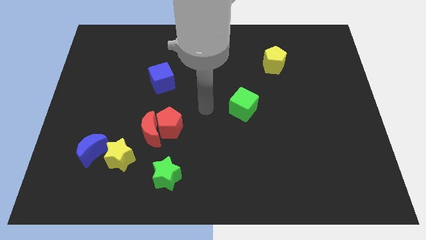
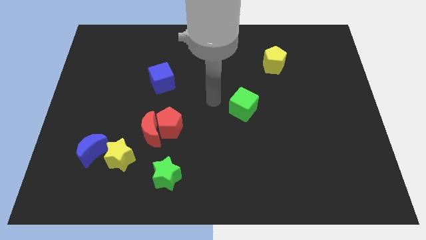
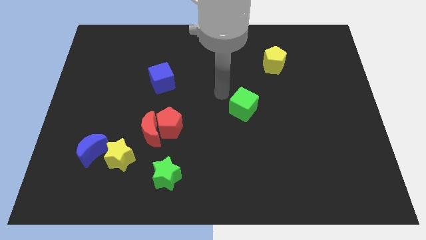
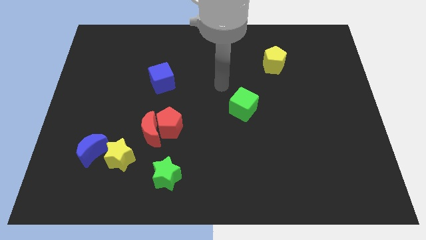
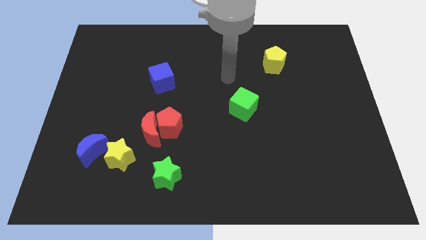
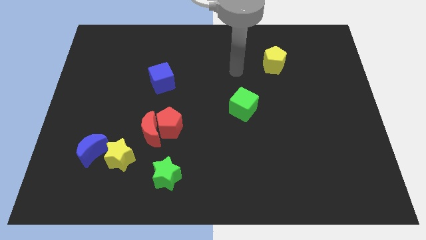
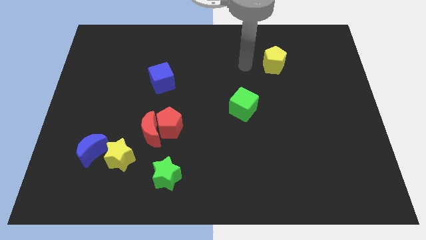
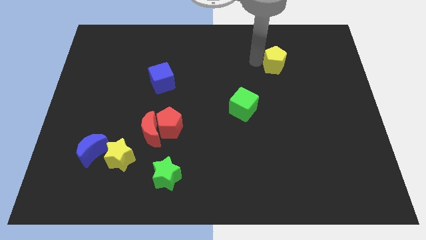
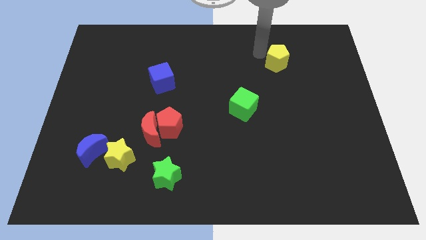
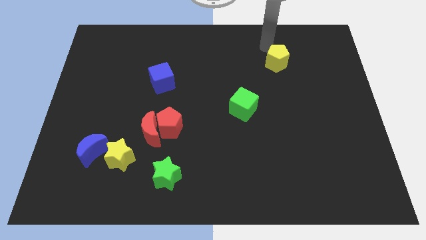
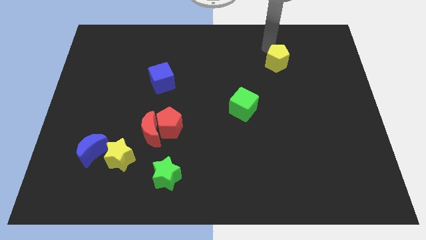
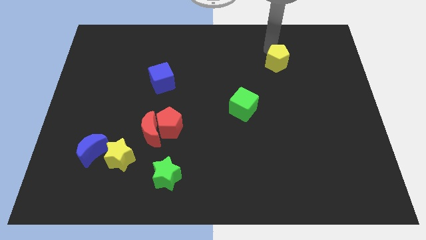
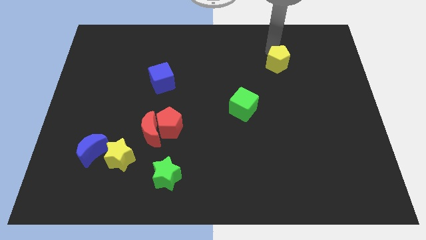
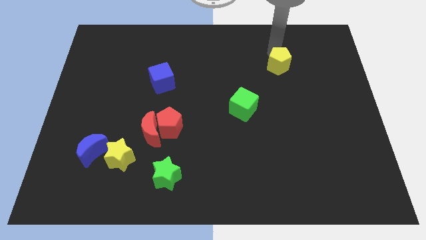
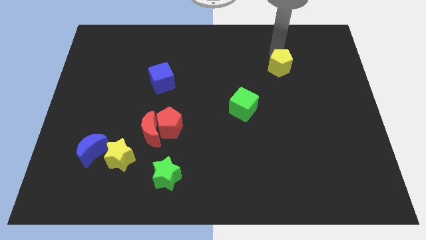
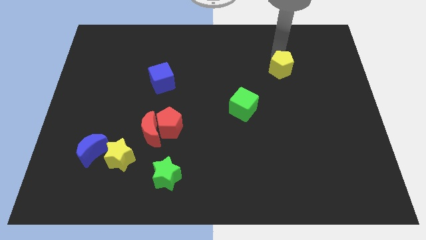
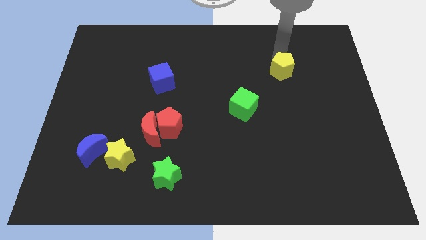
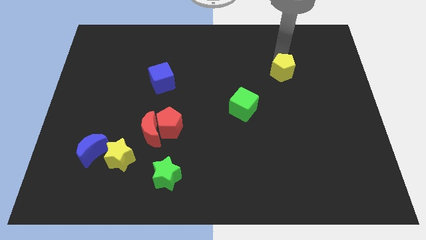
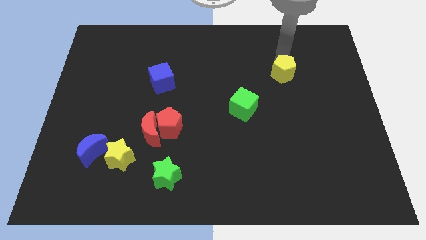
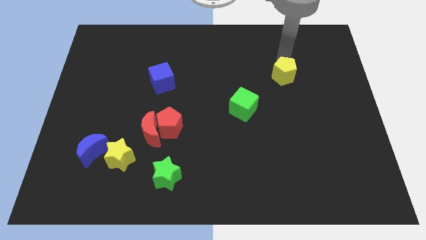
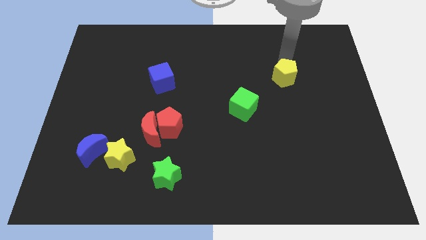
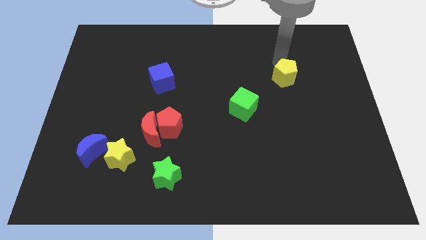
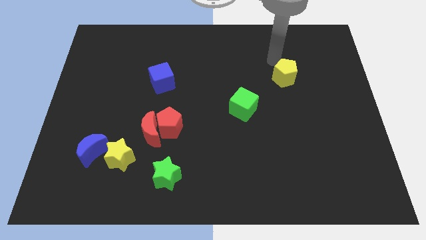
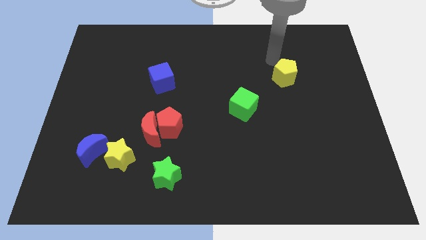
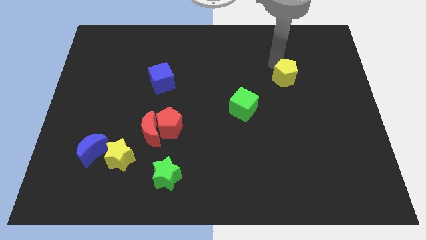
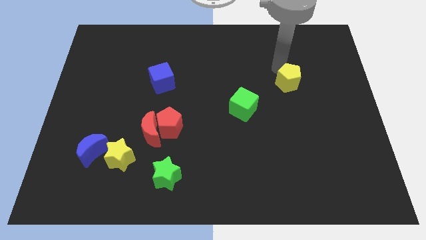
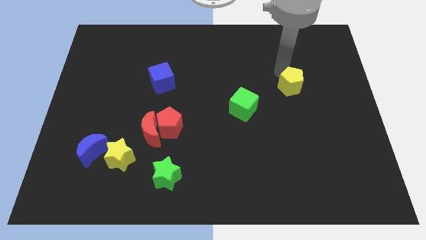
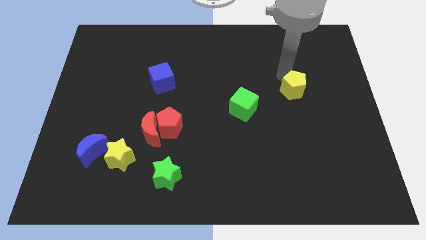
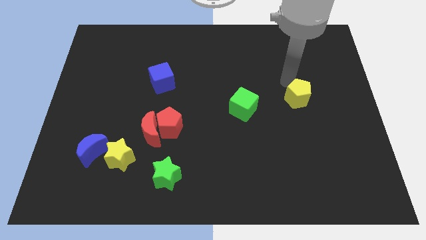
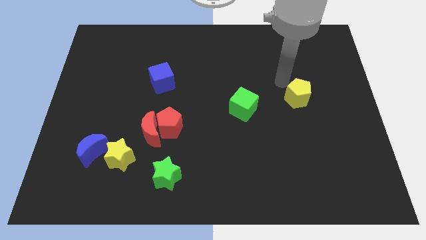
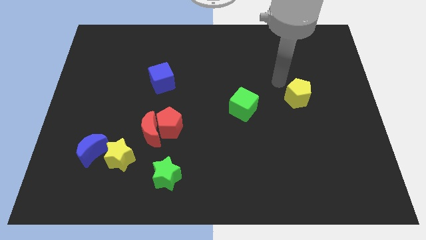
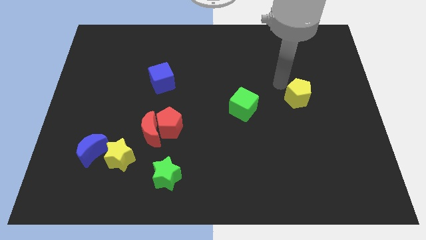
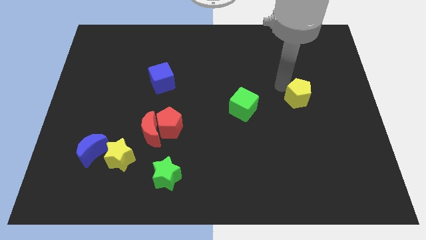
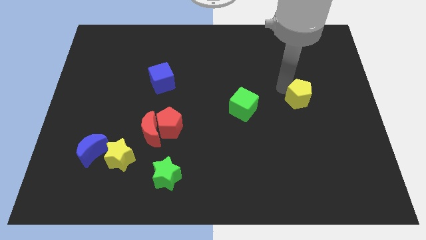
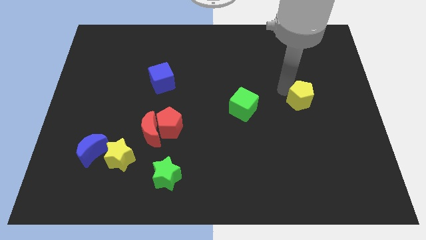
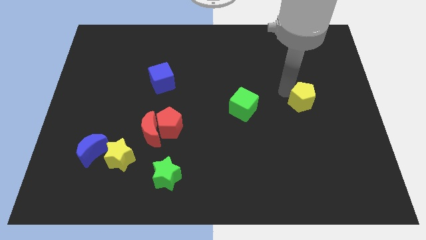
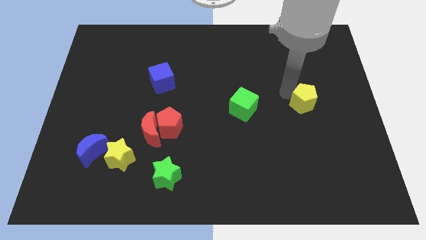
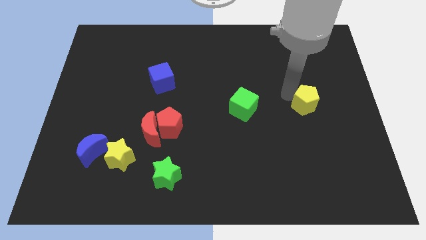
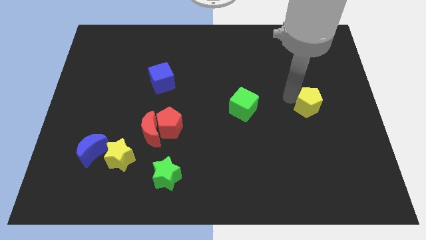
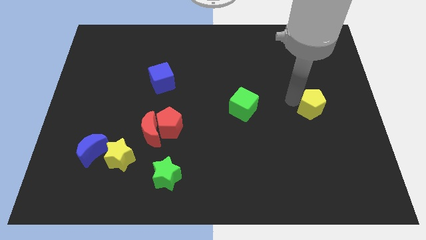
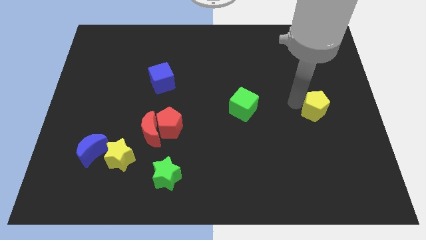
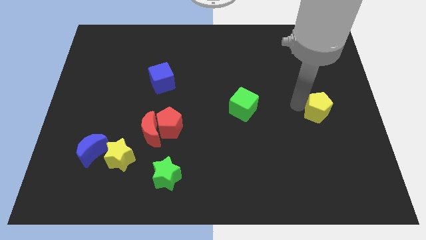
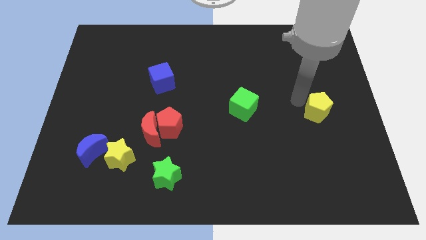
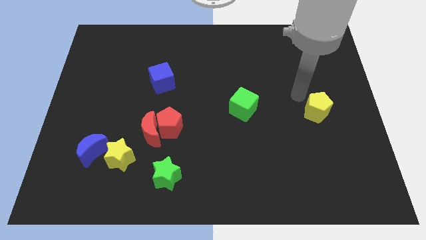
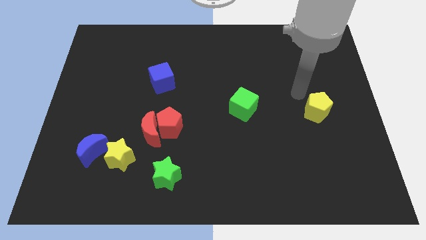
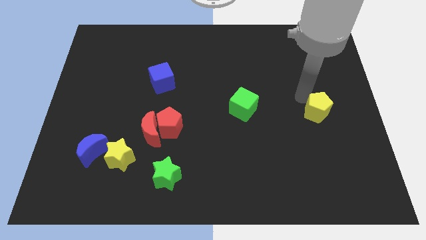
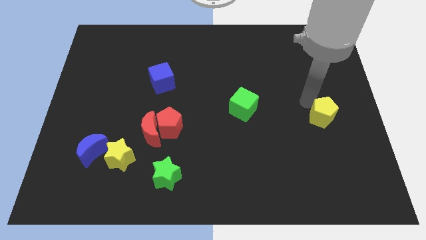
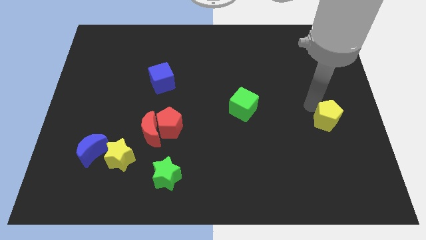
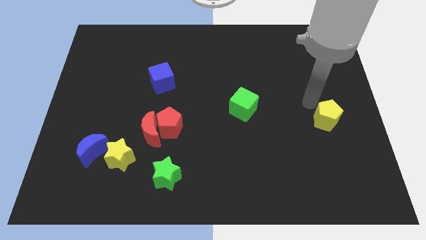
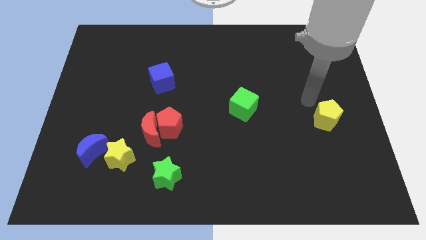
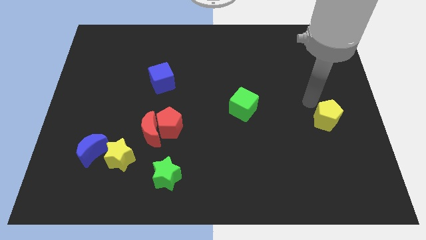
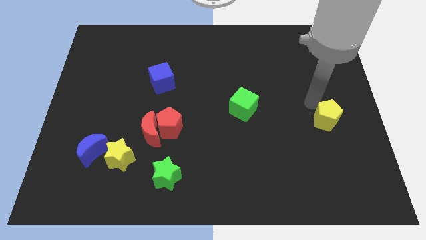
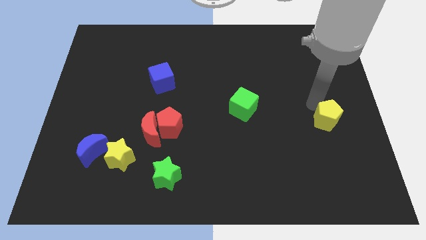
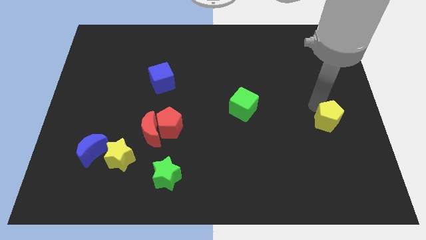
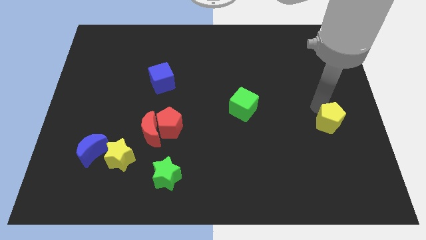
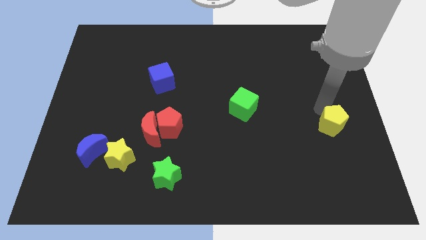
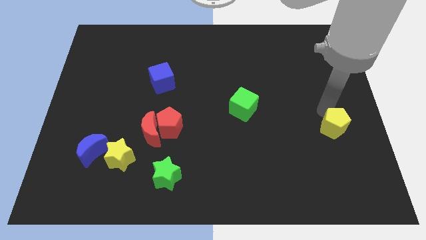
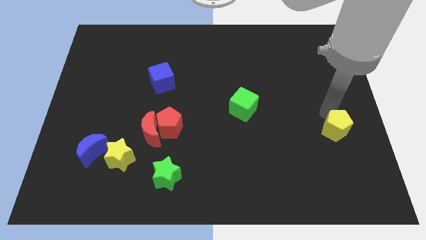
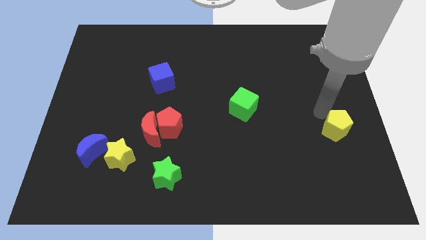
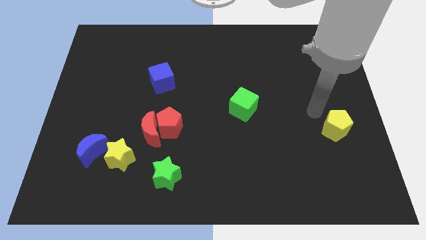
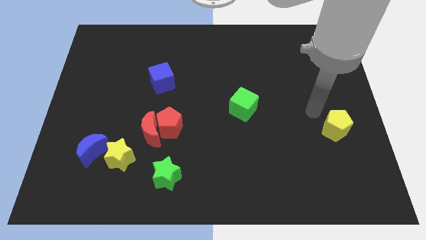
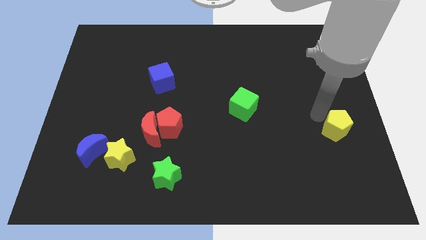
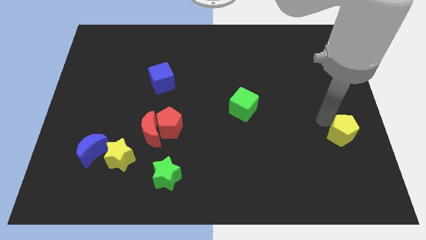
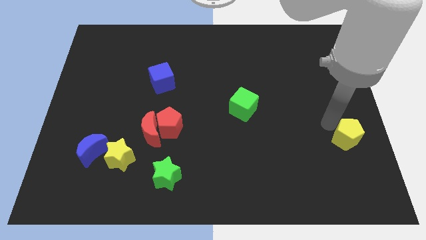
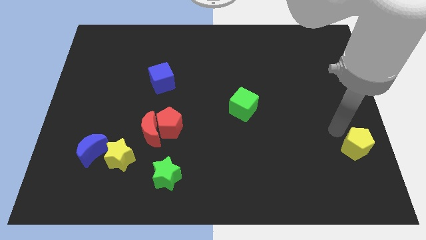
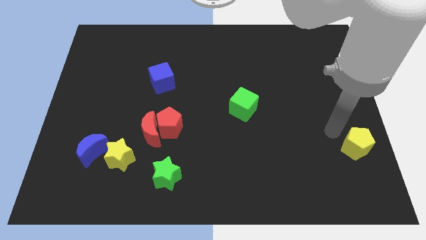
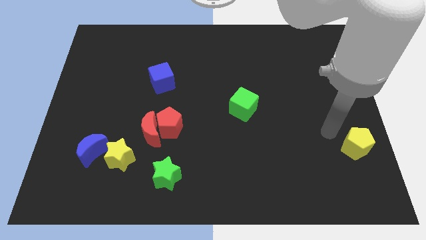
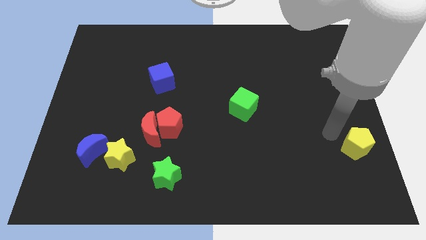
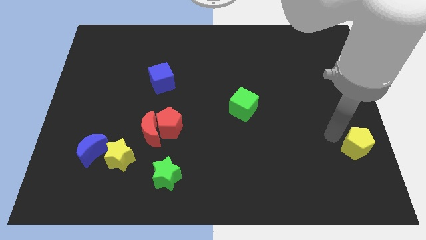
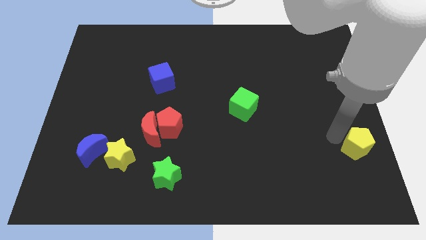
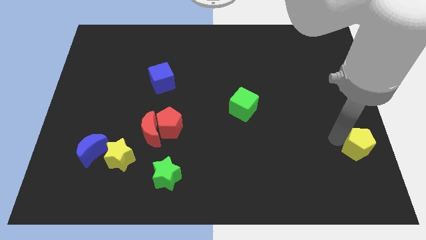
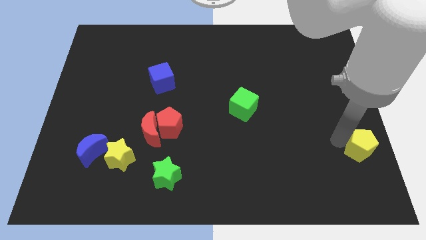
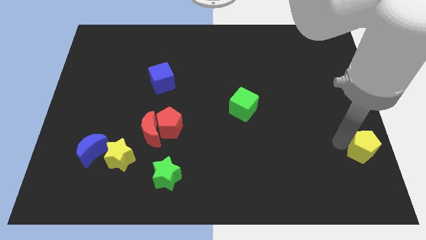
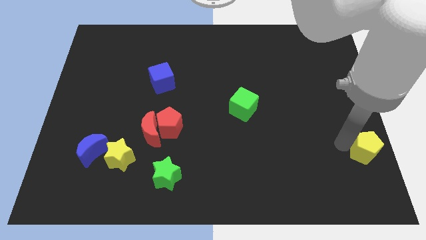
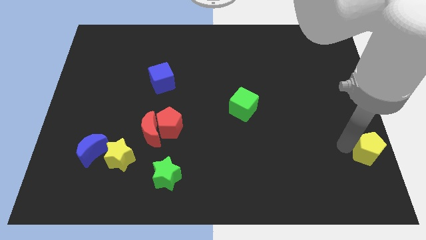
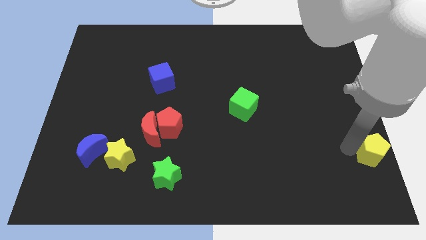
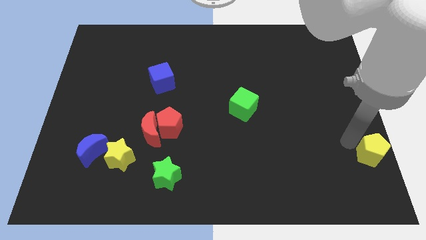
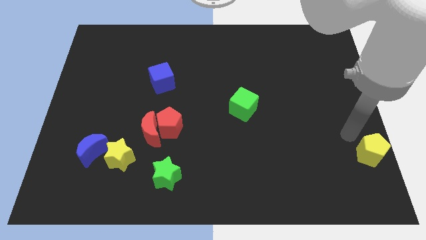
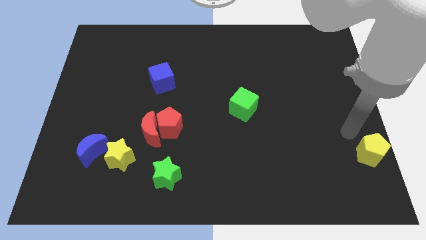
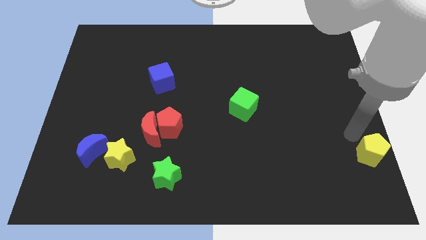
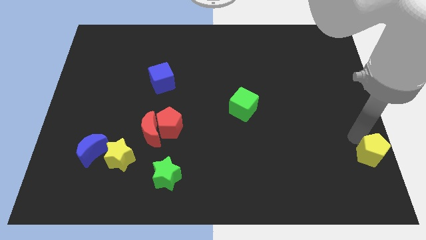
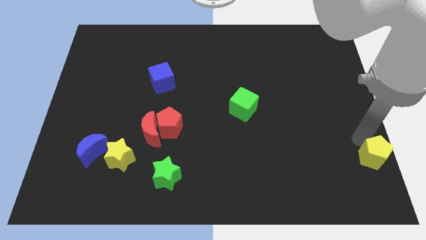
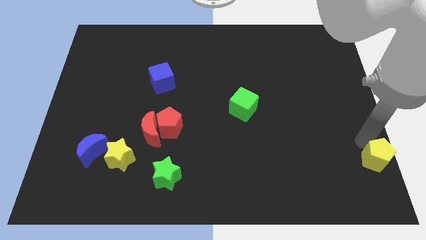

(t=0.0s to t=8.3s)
move the yellow pentagon to the bottom right
